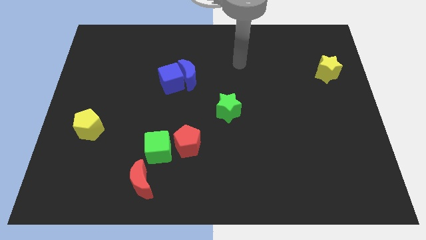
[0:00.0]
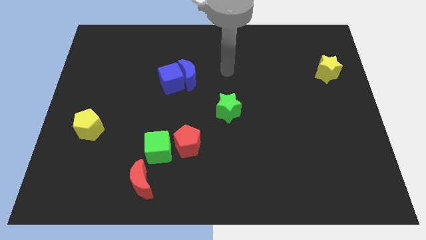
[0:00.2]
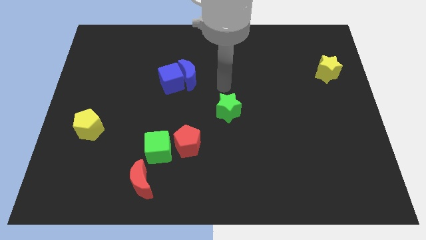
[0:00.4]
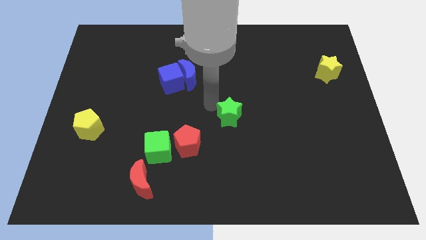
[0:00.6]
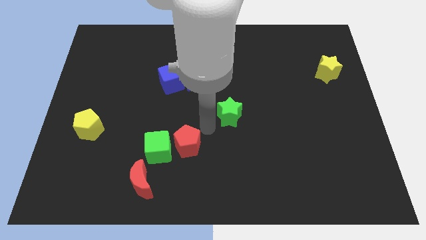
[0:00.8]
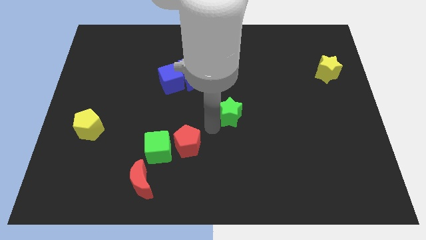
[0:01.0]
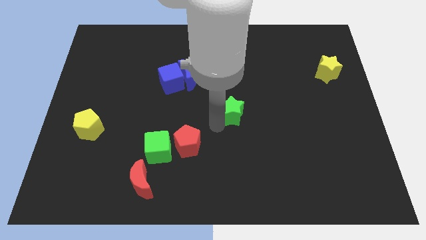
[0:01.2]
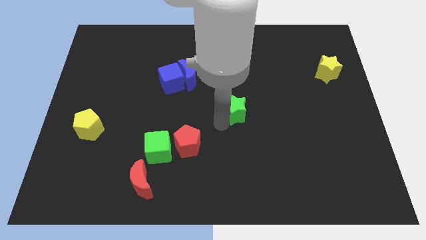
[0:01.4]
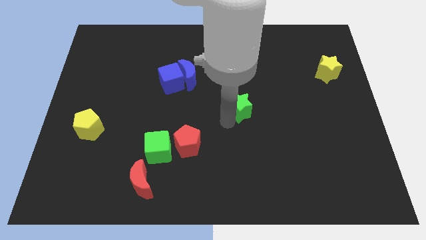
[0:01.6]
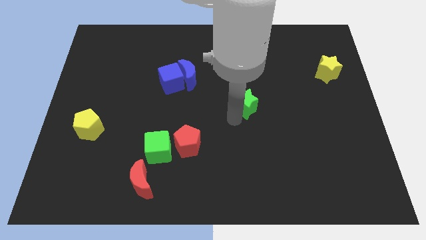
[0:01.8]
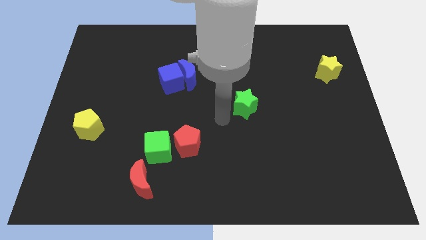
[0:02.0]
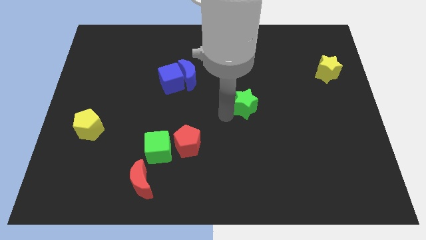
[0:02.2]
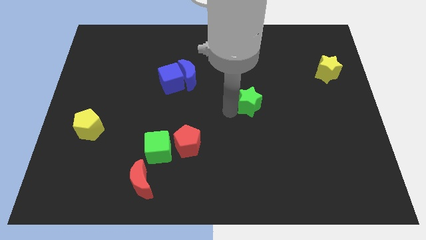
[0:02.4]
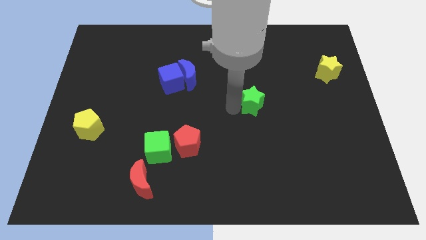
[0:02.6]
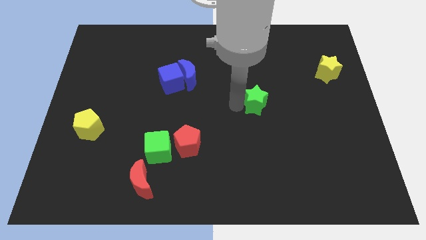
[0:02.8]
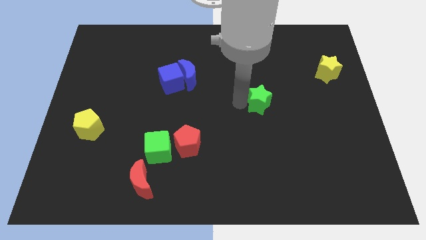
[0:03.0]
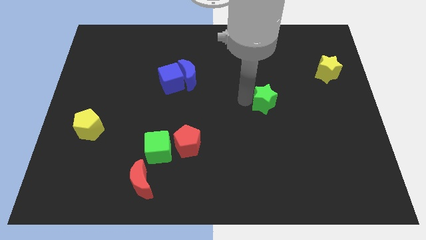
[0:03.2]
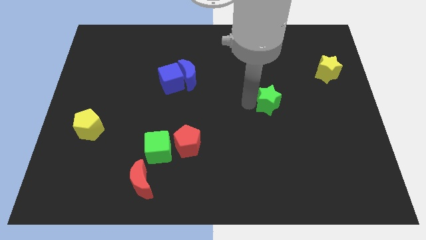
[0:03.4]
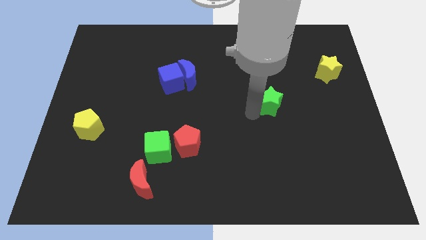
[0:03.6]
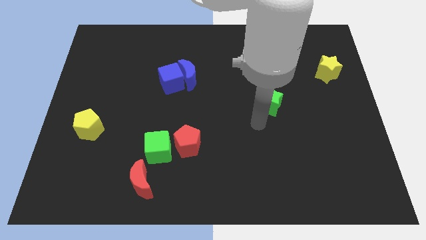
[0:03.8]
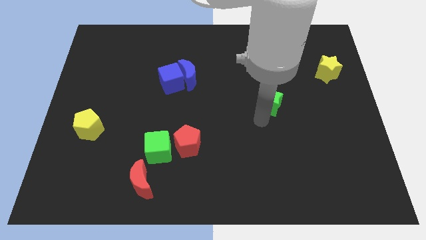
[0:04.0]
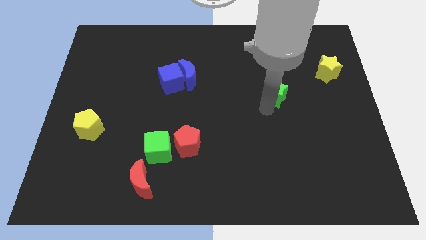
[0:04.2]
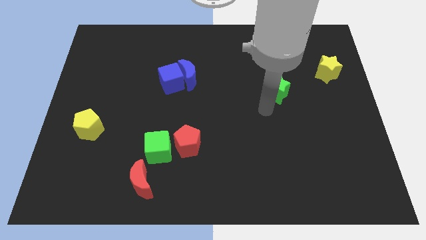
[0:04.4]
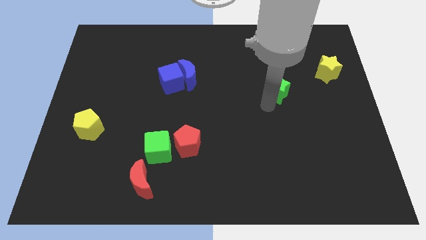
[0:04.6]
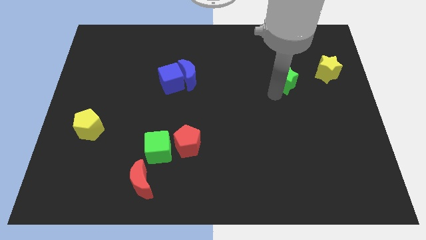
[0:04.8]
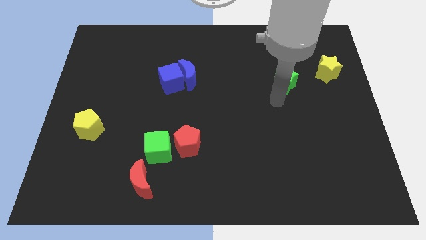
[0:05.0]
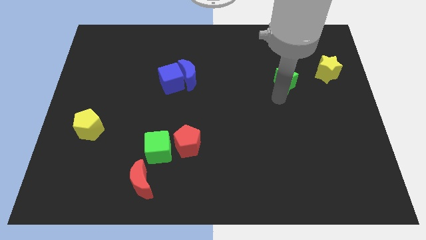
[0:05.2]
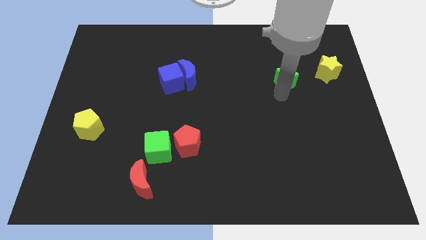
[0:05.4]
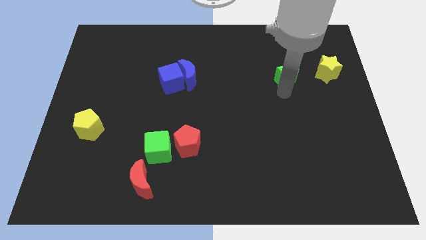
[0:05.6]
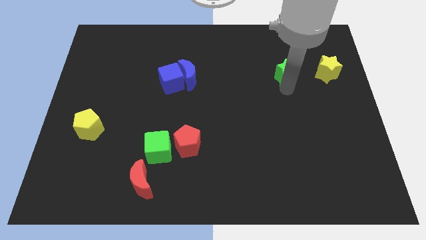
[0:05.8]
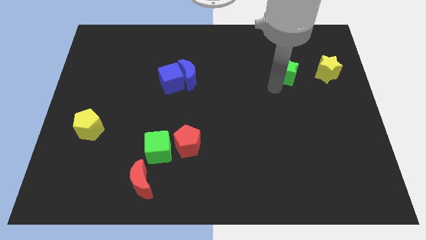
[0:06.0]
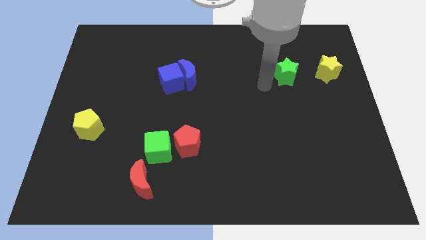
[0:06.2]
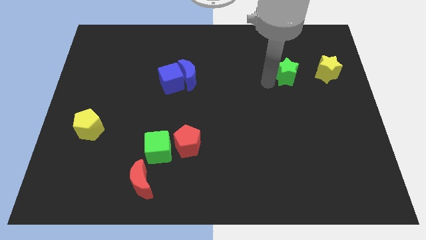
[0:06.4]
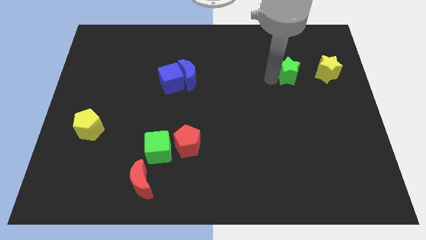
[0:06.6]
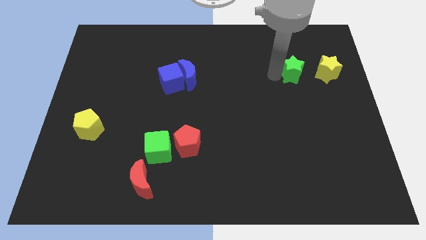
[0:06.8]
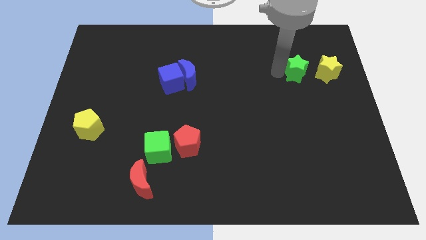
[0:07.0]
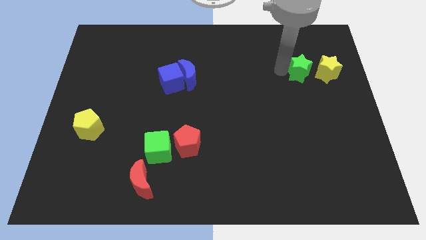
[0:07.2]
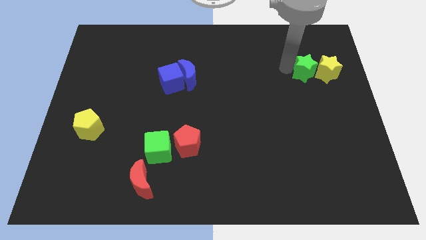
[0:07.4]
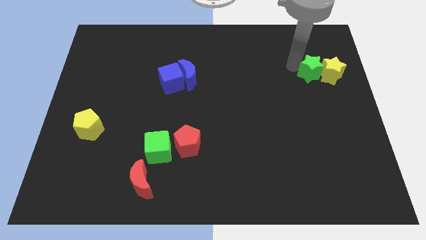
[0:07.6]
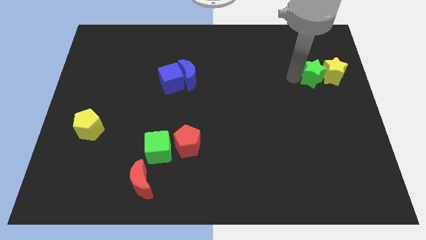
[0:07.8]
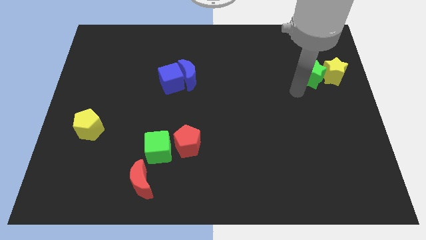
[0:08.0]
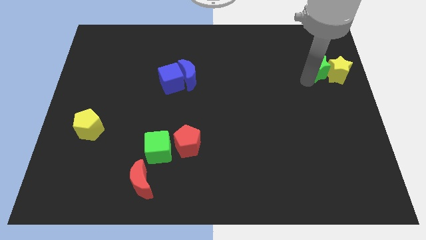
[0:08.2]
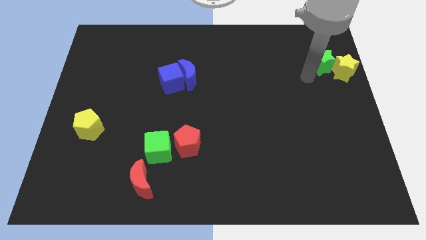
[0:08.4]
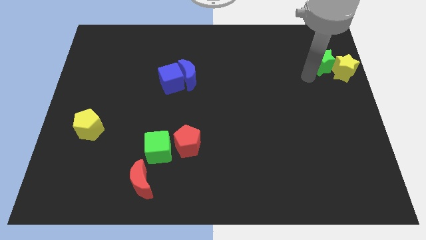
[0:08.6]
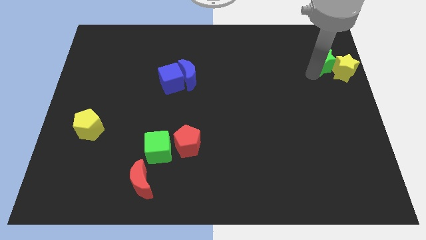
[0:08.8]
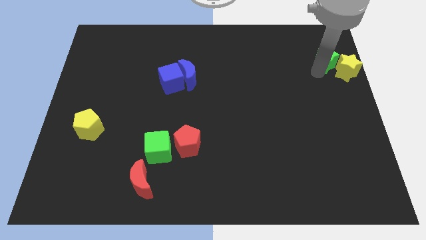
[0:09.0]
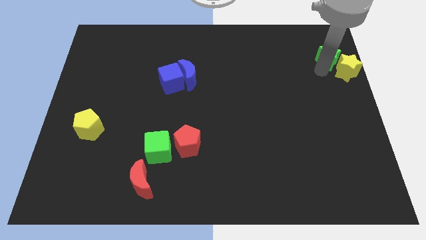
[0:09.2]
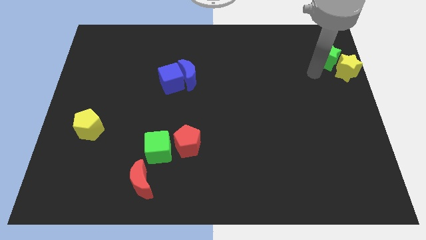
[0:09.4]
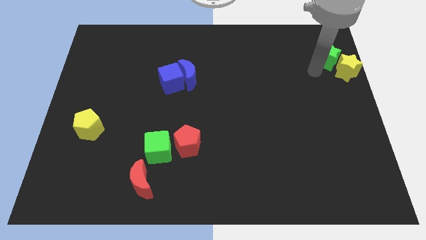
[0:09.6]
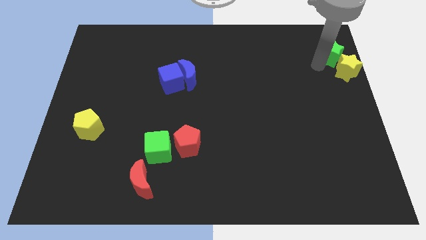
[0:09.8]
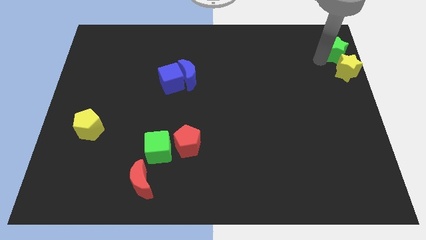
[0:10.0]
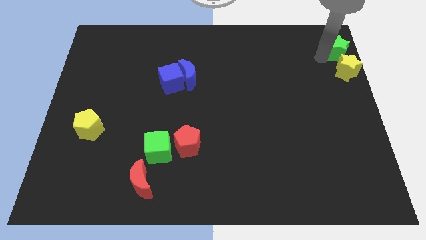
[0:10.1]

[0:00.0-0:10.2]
push the green star to the upper right corner
